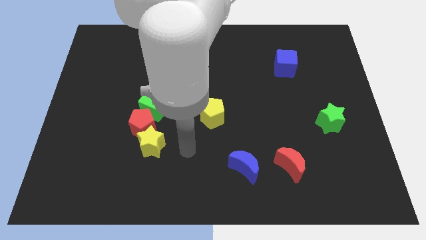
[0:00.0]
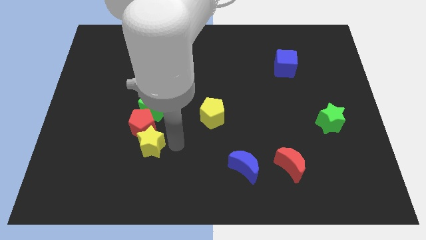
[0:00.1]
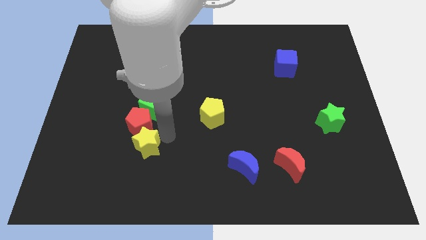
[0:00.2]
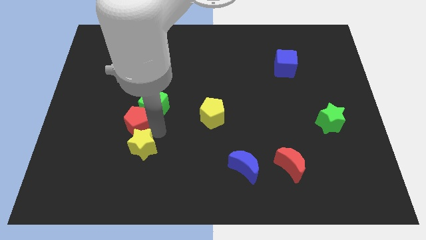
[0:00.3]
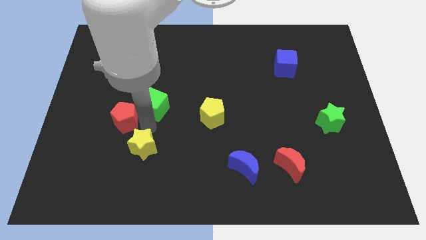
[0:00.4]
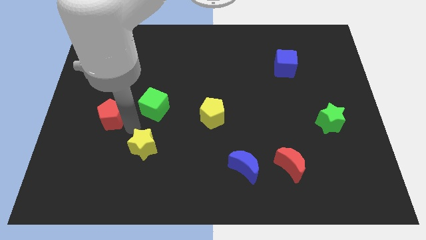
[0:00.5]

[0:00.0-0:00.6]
pull the yellow star apart from the red pentagon

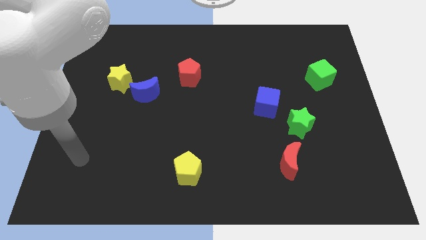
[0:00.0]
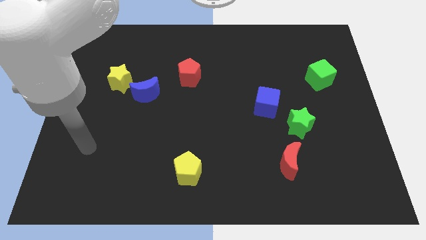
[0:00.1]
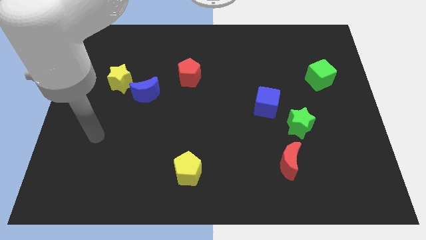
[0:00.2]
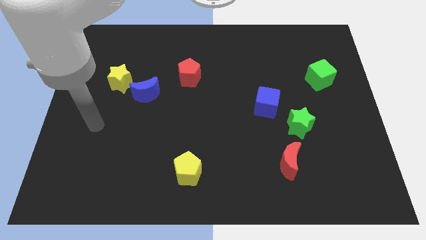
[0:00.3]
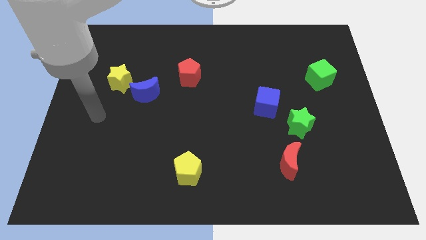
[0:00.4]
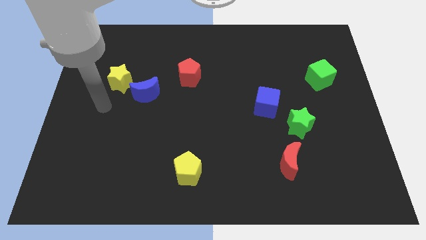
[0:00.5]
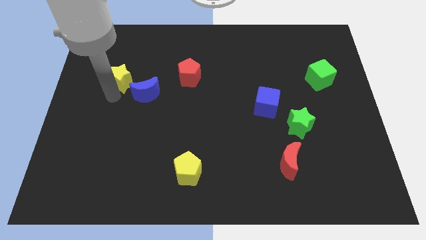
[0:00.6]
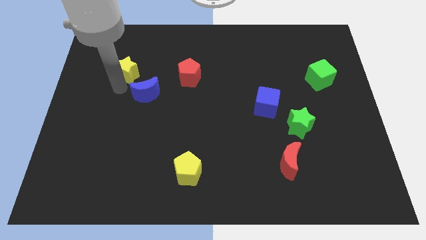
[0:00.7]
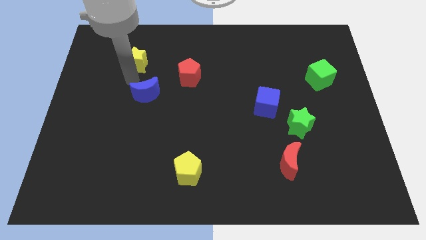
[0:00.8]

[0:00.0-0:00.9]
move the blue moon away from the yellow star

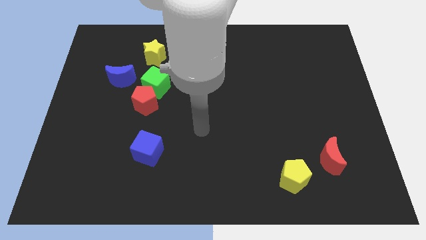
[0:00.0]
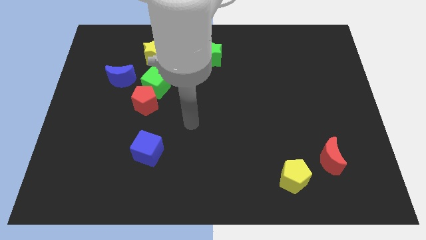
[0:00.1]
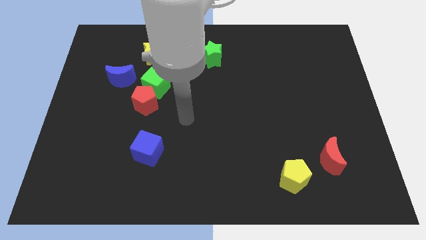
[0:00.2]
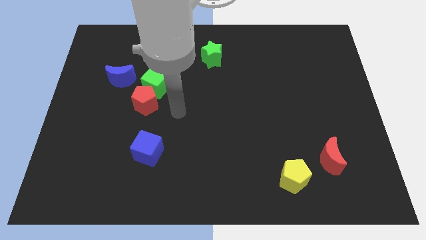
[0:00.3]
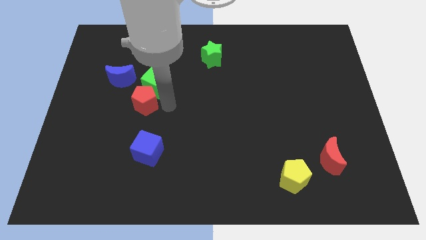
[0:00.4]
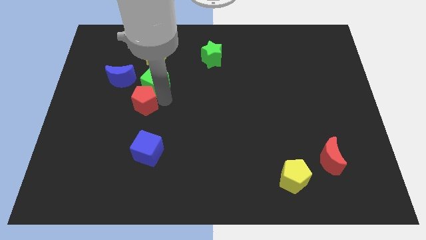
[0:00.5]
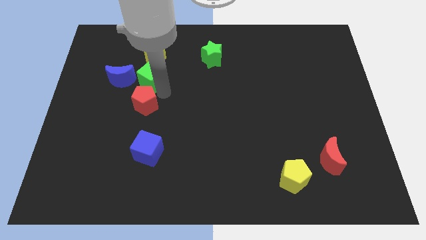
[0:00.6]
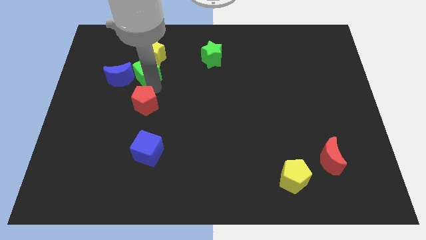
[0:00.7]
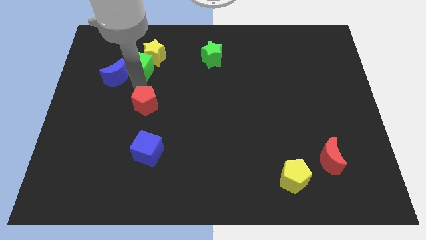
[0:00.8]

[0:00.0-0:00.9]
move the red pentagon away from the green cube and blue moon

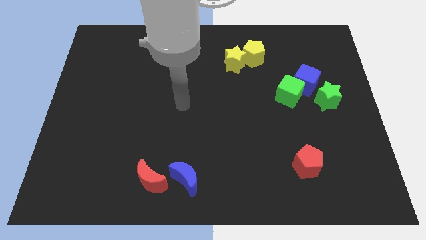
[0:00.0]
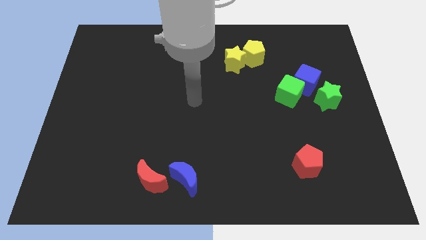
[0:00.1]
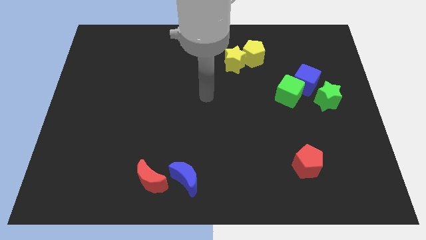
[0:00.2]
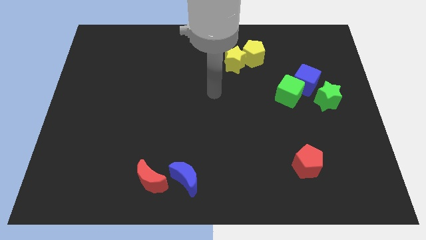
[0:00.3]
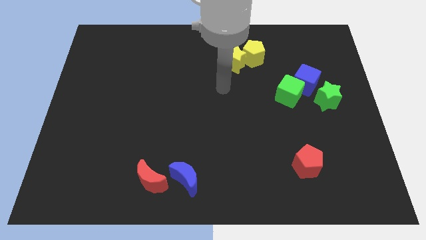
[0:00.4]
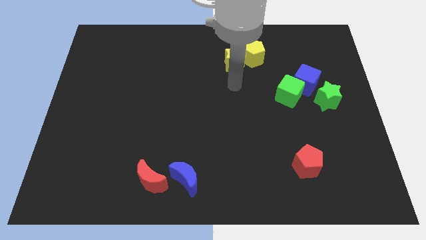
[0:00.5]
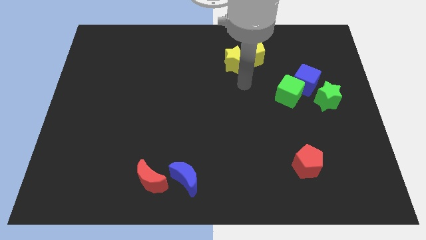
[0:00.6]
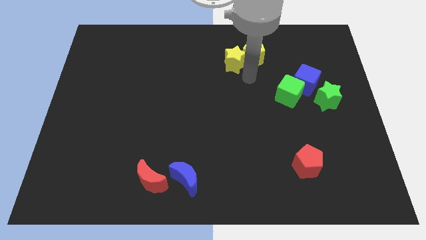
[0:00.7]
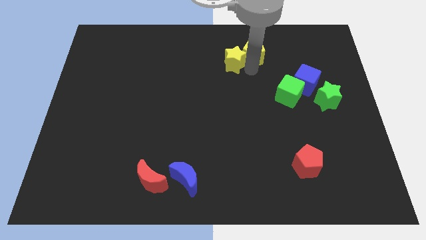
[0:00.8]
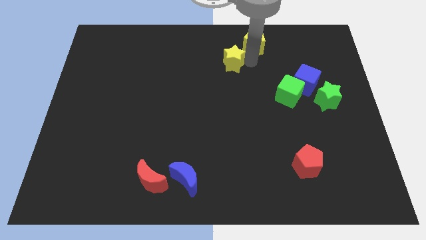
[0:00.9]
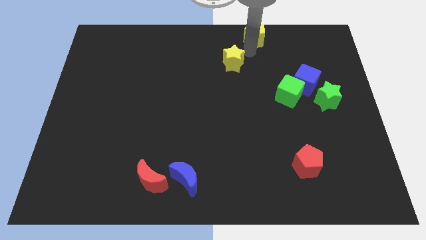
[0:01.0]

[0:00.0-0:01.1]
pull the yellow star apart from the yellow pentagon

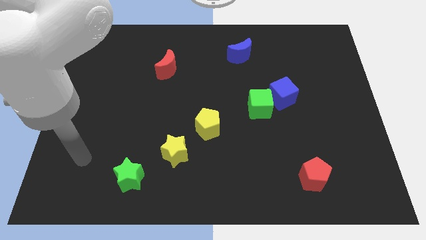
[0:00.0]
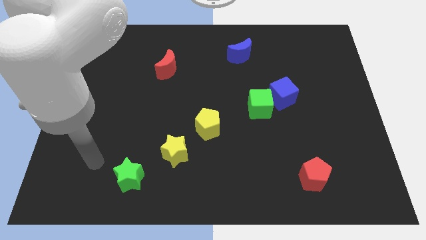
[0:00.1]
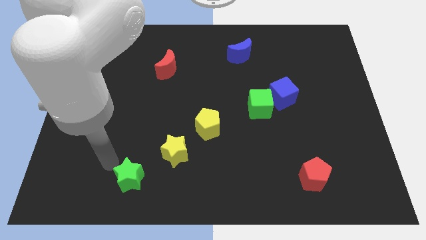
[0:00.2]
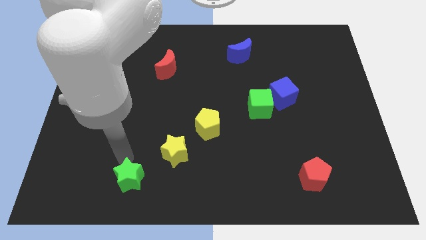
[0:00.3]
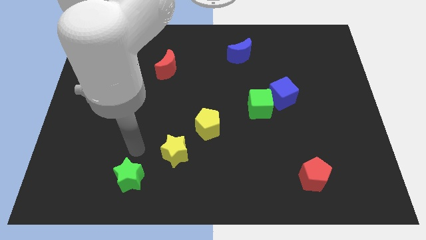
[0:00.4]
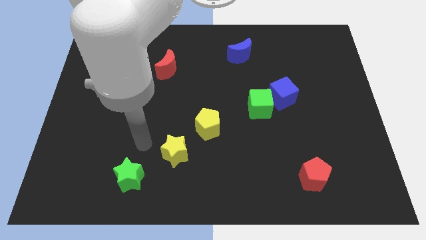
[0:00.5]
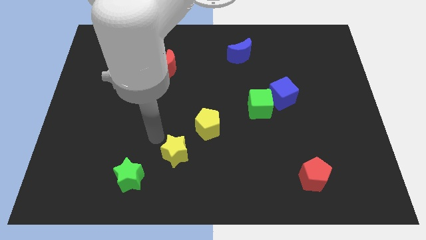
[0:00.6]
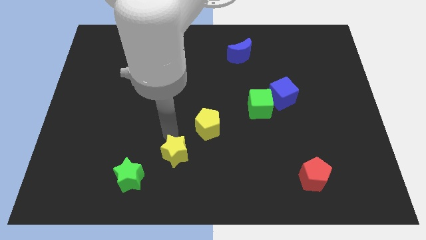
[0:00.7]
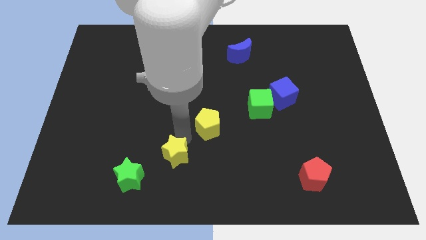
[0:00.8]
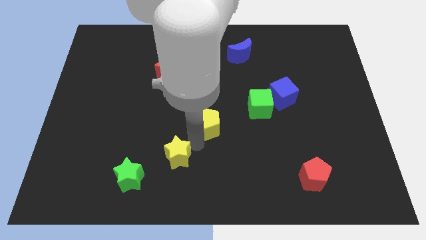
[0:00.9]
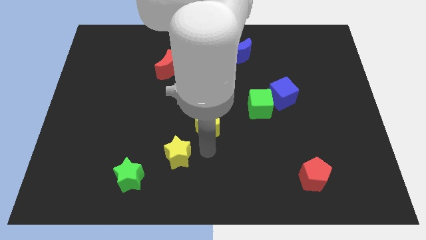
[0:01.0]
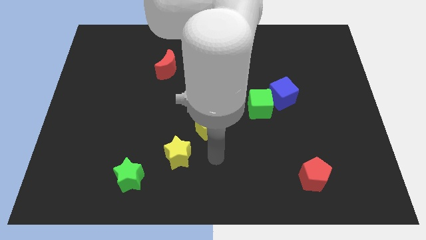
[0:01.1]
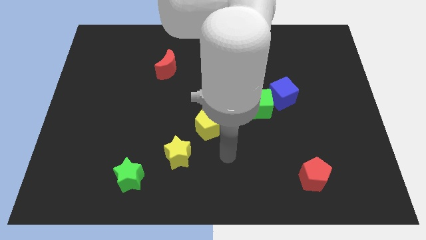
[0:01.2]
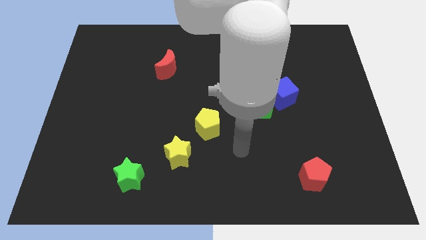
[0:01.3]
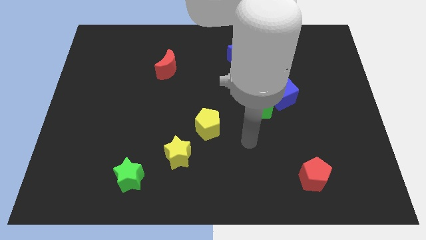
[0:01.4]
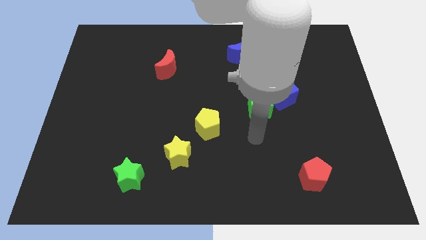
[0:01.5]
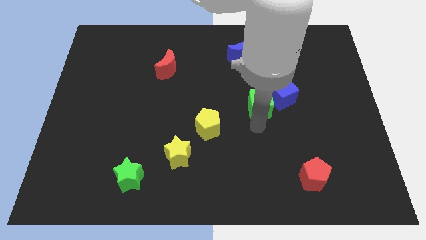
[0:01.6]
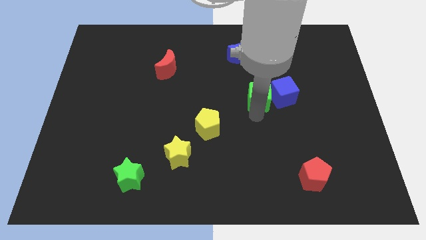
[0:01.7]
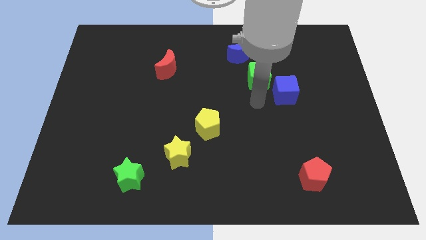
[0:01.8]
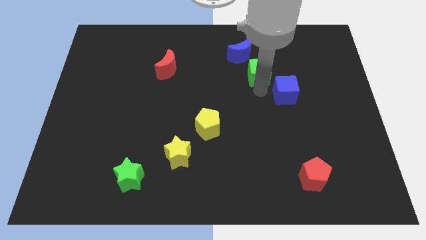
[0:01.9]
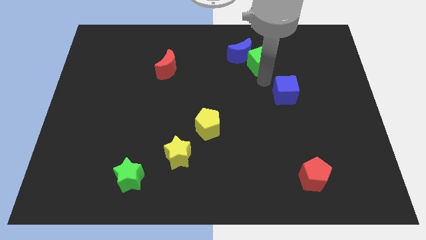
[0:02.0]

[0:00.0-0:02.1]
pull the blue cube apart from the green cube

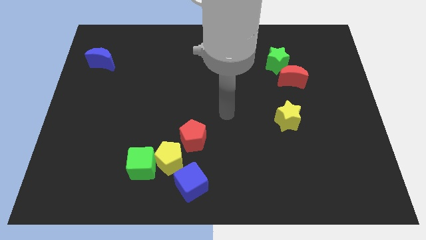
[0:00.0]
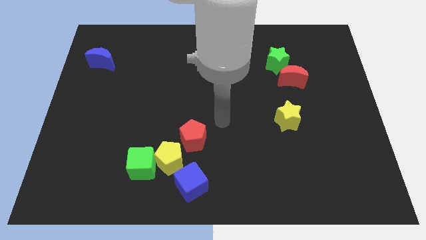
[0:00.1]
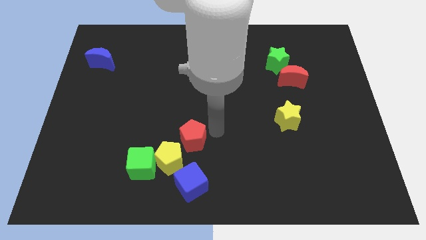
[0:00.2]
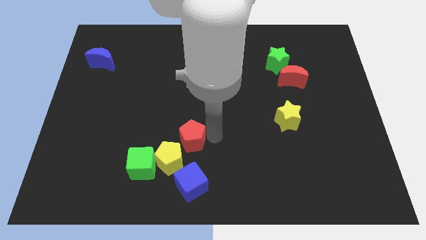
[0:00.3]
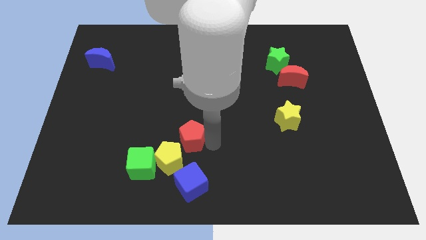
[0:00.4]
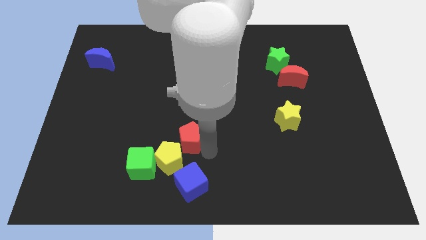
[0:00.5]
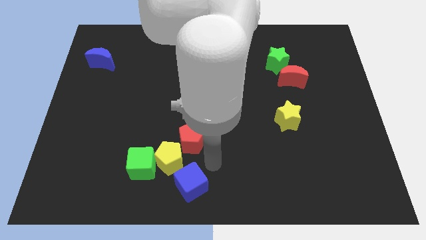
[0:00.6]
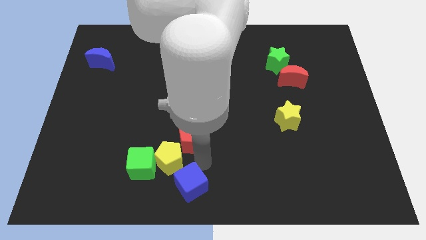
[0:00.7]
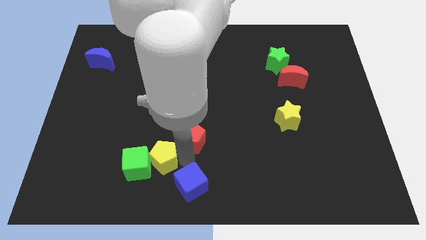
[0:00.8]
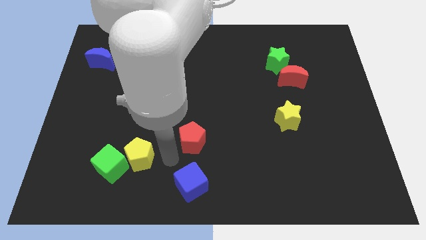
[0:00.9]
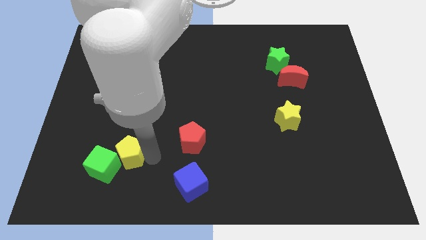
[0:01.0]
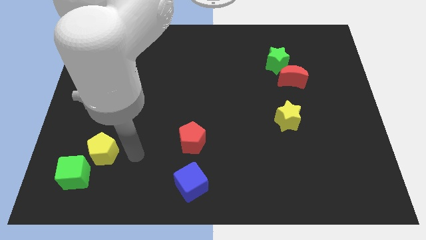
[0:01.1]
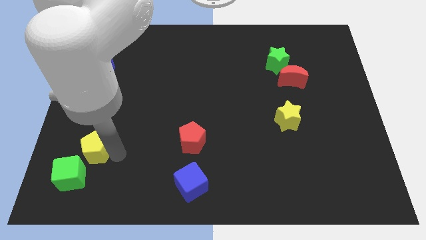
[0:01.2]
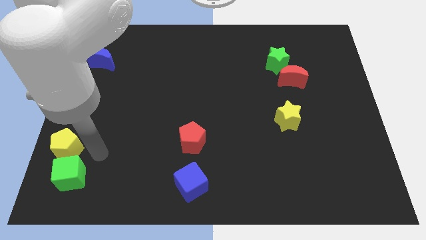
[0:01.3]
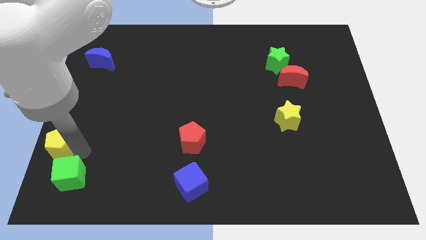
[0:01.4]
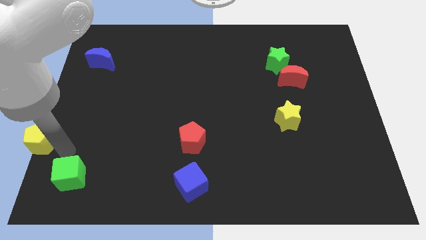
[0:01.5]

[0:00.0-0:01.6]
pull the green cube apart from the yellow pentagon

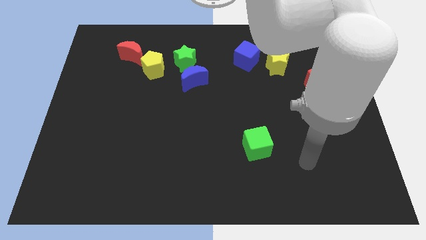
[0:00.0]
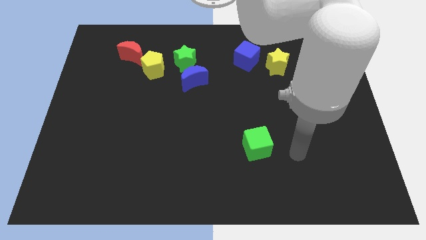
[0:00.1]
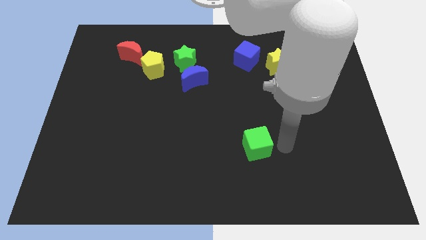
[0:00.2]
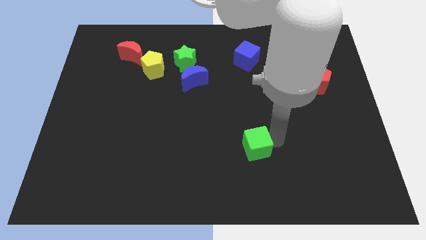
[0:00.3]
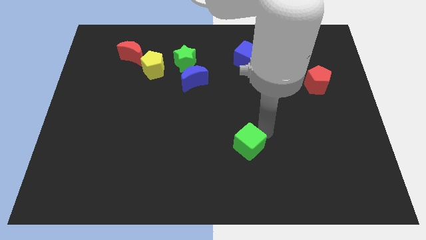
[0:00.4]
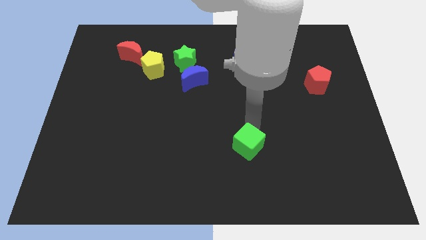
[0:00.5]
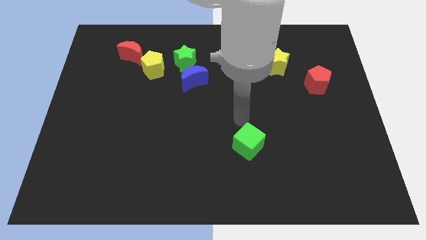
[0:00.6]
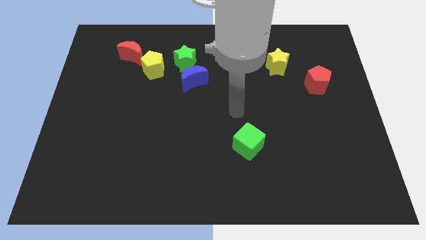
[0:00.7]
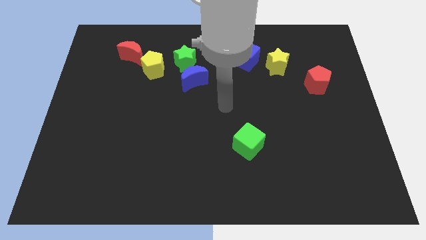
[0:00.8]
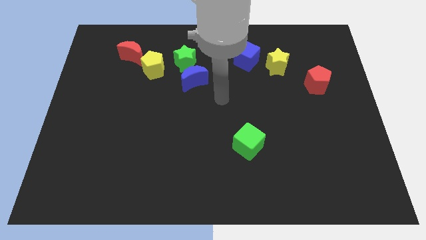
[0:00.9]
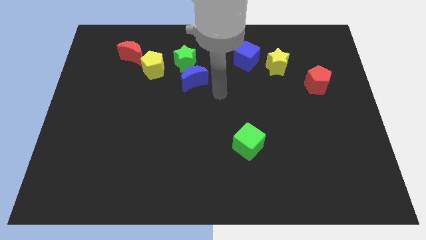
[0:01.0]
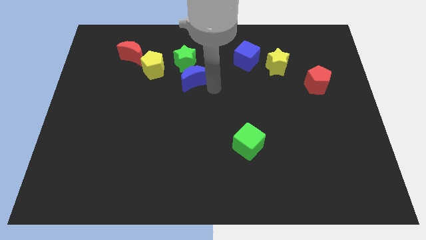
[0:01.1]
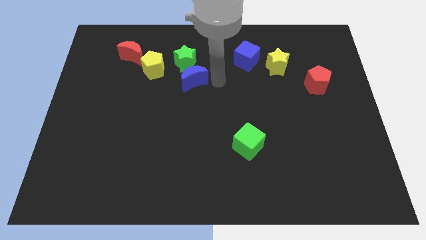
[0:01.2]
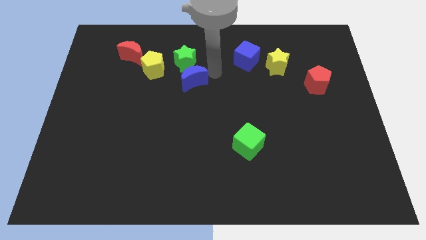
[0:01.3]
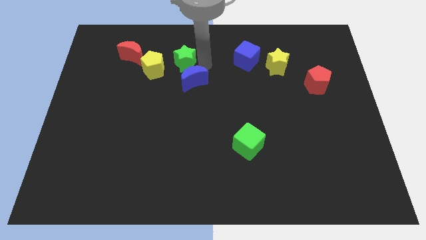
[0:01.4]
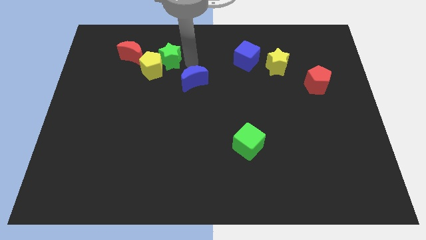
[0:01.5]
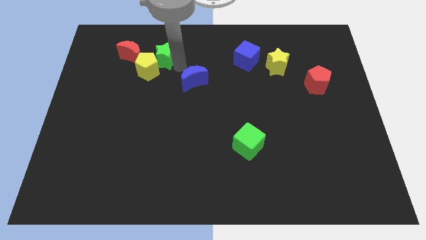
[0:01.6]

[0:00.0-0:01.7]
pull the blue moon apart from the green star

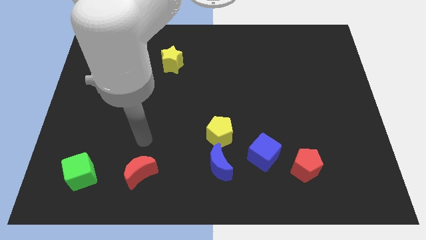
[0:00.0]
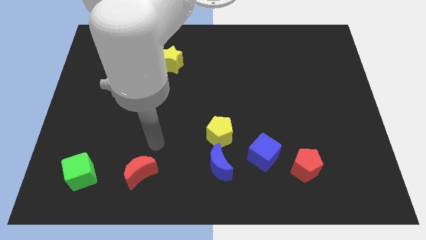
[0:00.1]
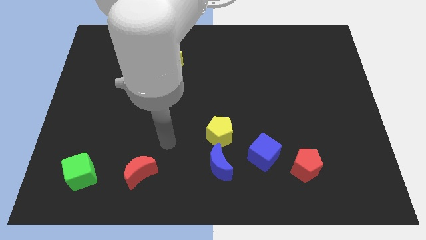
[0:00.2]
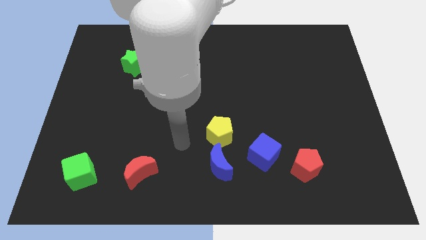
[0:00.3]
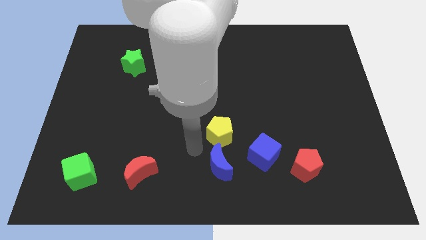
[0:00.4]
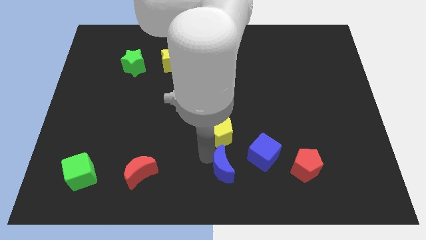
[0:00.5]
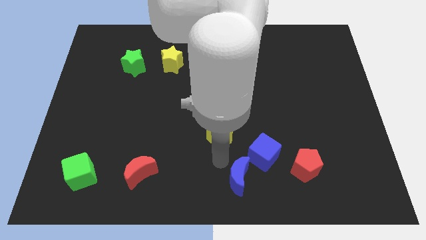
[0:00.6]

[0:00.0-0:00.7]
separate the yellow pentagon from the blue moon
